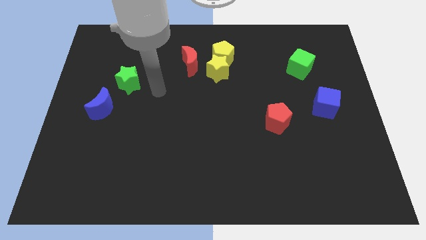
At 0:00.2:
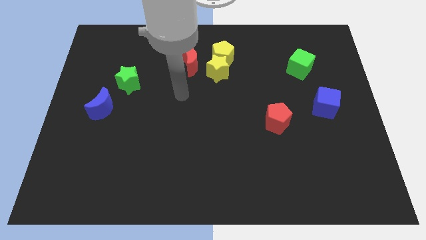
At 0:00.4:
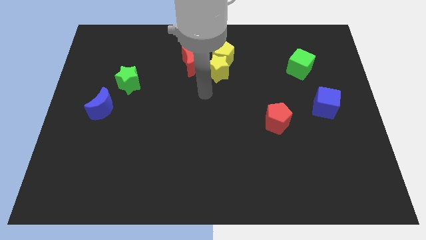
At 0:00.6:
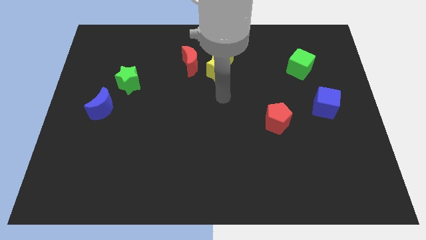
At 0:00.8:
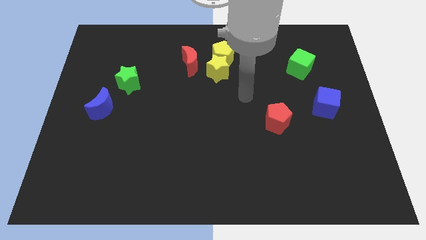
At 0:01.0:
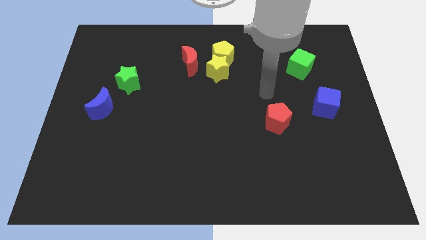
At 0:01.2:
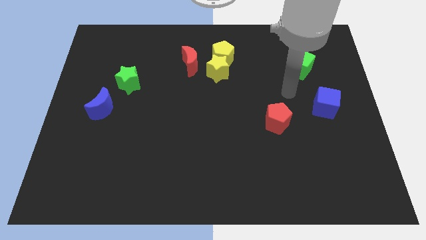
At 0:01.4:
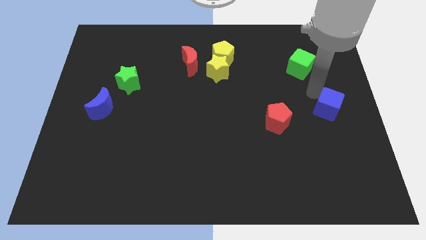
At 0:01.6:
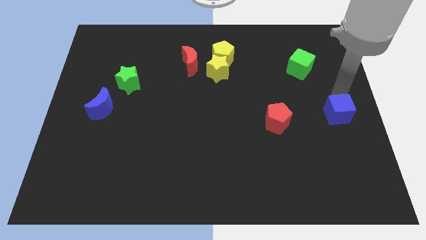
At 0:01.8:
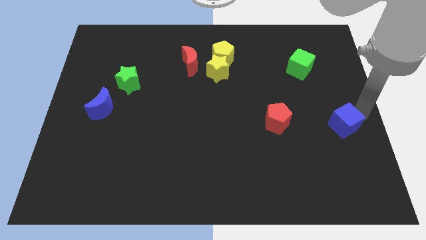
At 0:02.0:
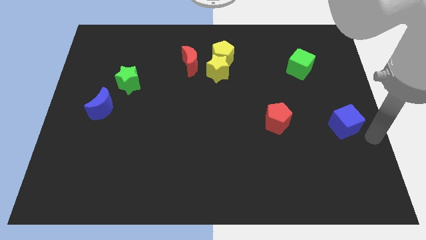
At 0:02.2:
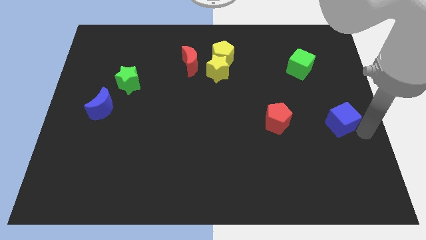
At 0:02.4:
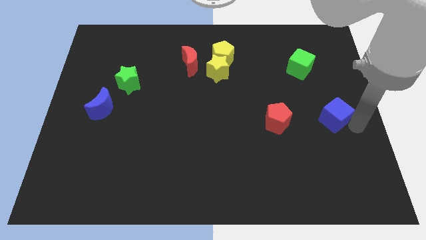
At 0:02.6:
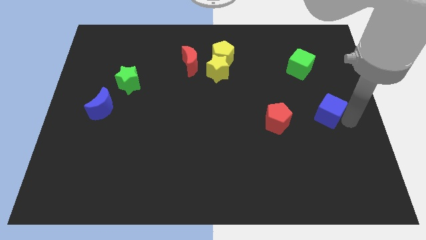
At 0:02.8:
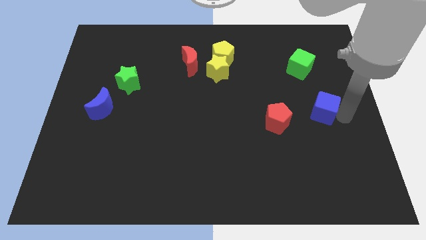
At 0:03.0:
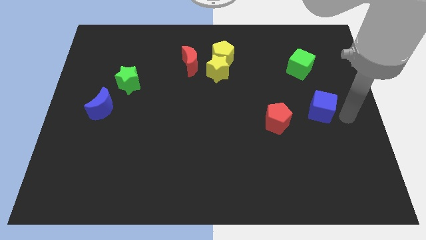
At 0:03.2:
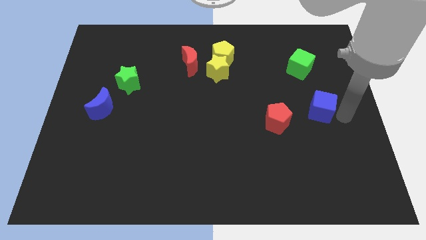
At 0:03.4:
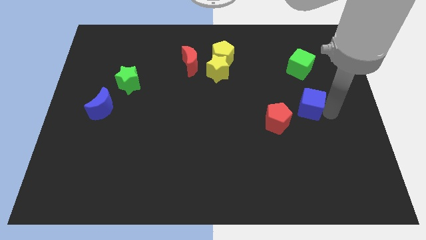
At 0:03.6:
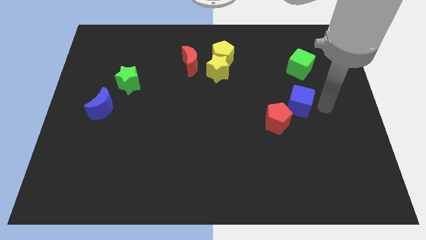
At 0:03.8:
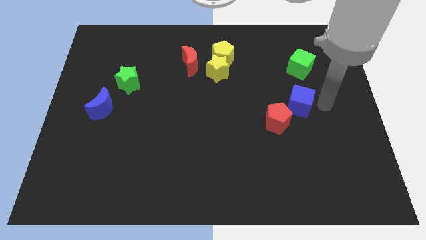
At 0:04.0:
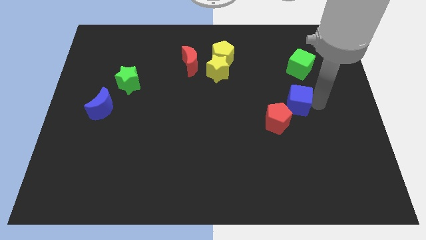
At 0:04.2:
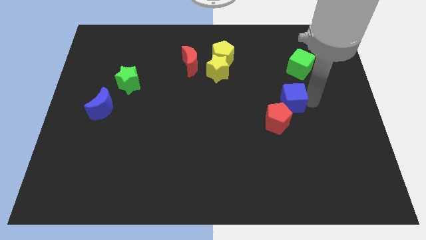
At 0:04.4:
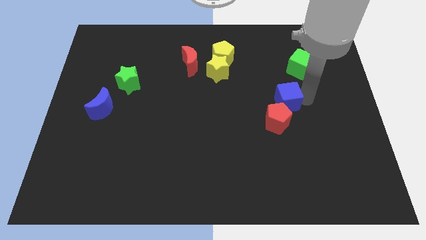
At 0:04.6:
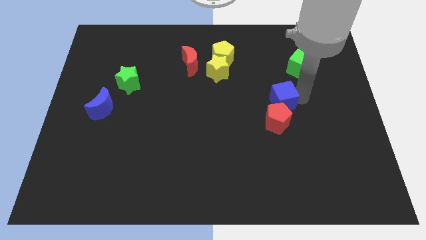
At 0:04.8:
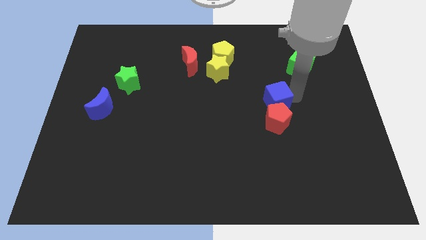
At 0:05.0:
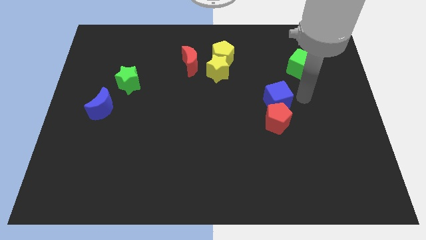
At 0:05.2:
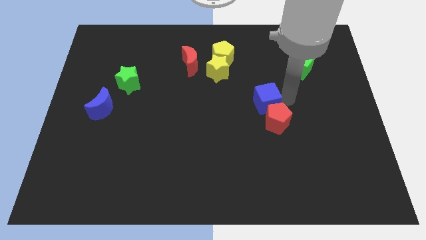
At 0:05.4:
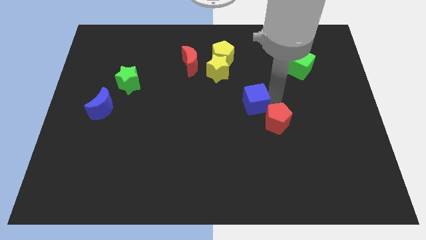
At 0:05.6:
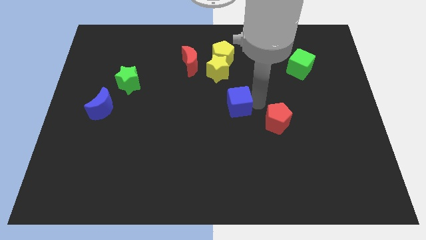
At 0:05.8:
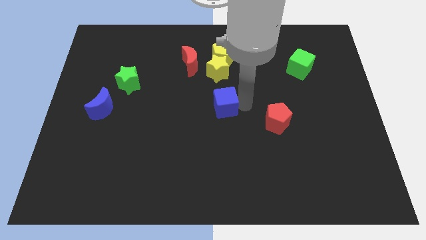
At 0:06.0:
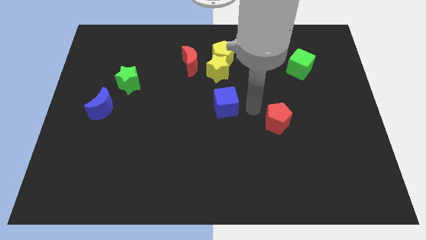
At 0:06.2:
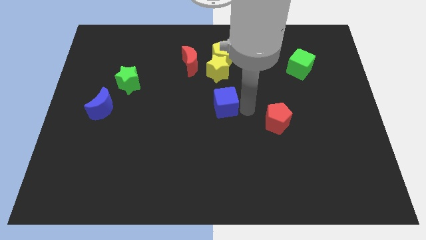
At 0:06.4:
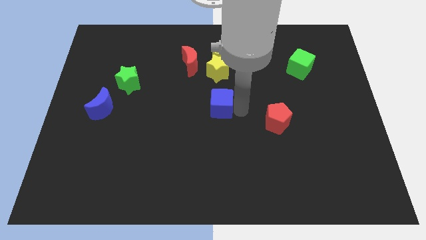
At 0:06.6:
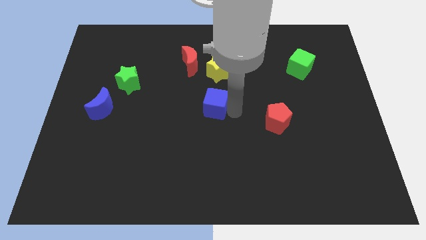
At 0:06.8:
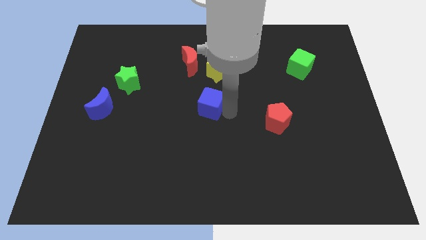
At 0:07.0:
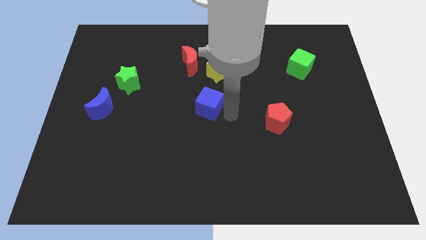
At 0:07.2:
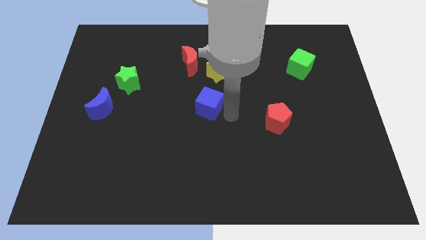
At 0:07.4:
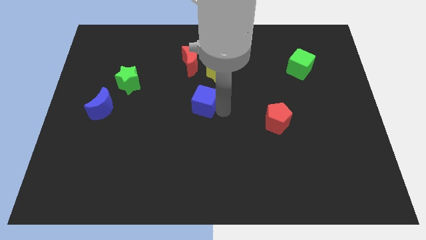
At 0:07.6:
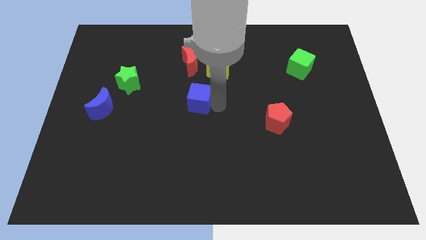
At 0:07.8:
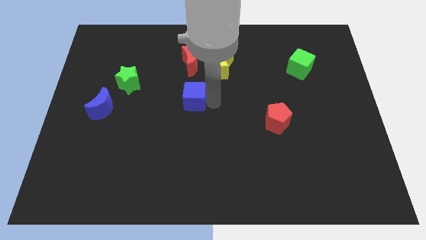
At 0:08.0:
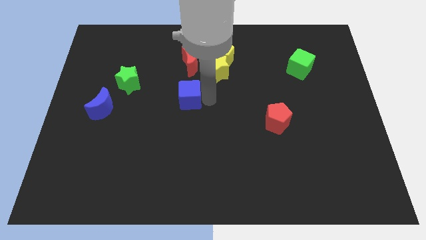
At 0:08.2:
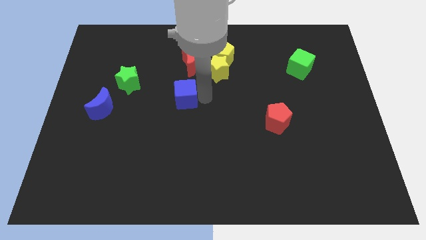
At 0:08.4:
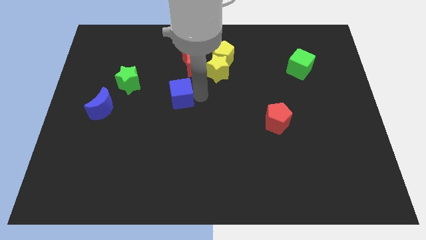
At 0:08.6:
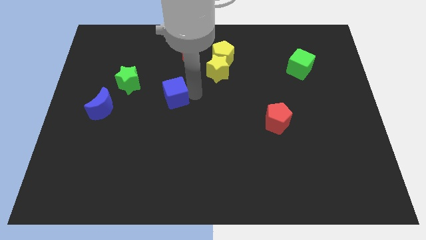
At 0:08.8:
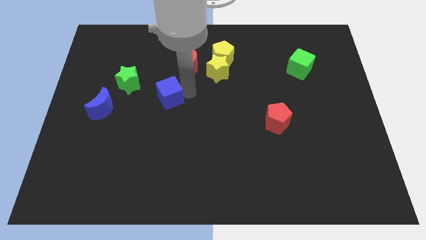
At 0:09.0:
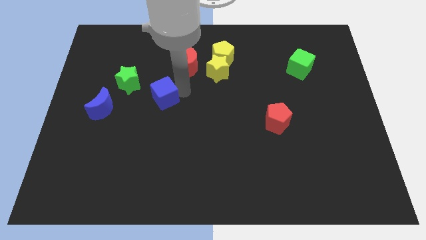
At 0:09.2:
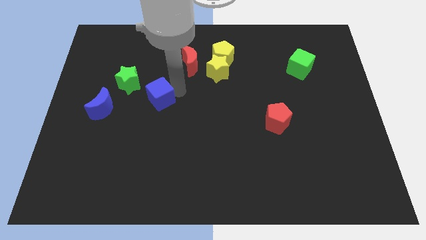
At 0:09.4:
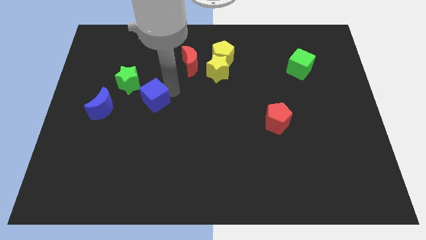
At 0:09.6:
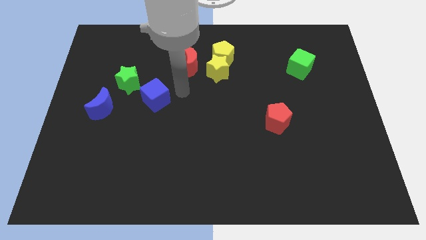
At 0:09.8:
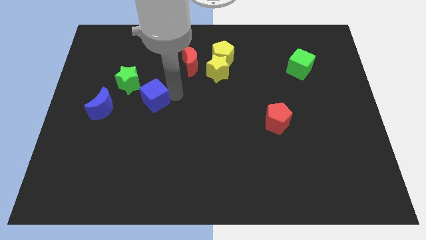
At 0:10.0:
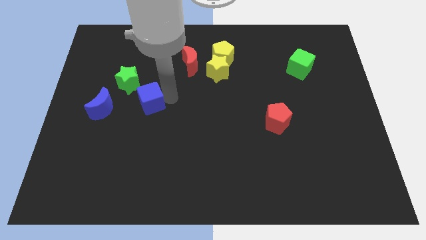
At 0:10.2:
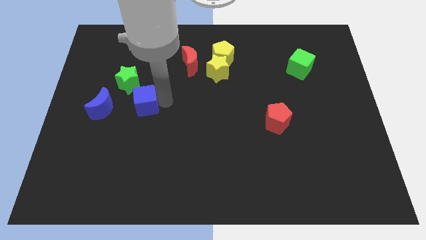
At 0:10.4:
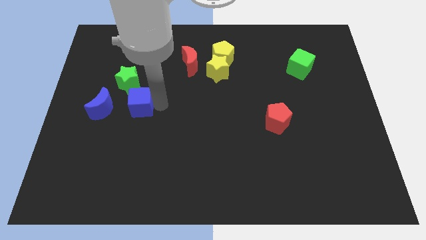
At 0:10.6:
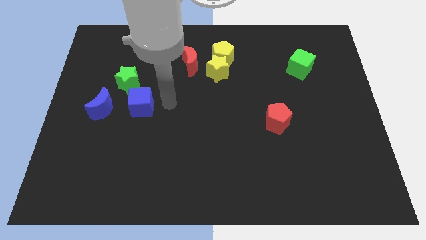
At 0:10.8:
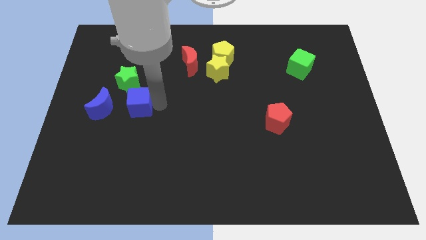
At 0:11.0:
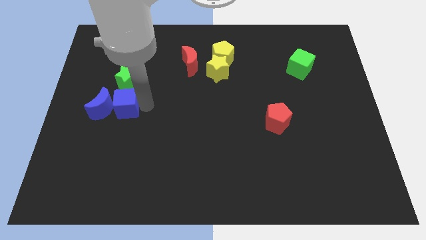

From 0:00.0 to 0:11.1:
slide the blue cube close to the blue moon

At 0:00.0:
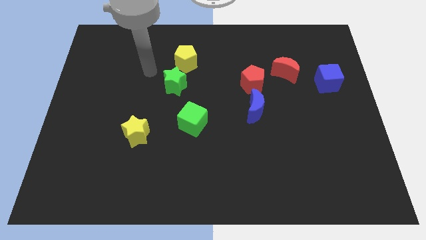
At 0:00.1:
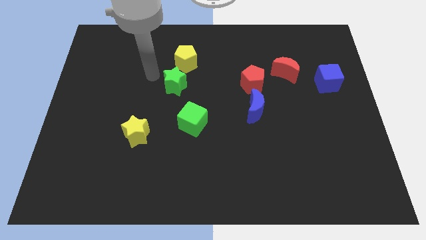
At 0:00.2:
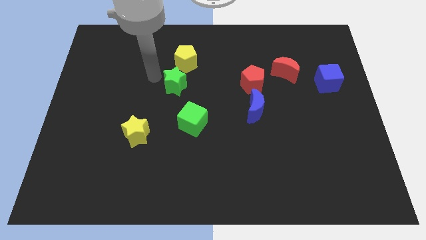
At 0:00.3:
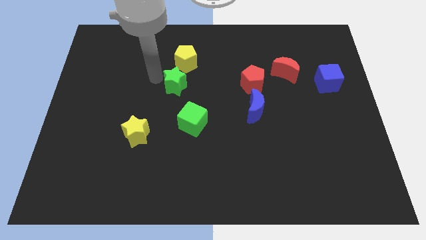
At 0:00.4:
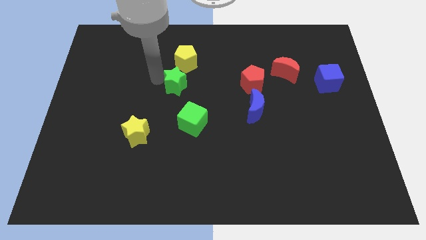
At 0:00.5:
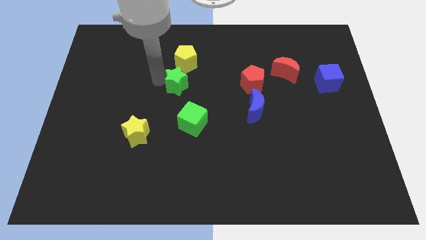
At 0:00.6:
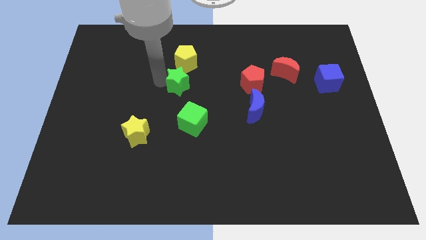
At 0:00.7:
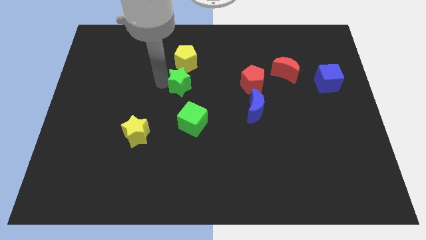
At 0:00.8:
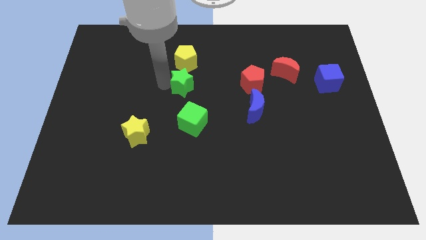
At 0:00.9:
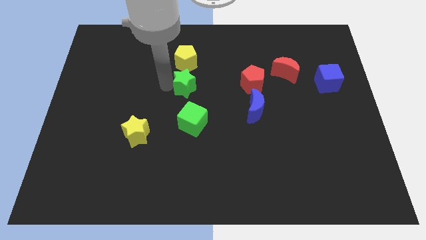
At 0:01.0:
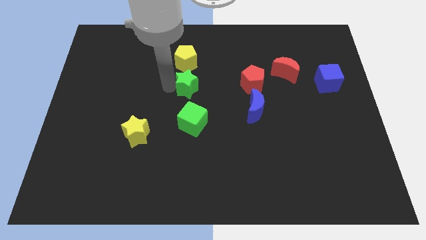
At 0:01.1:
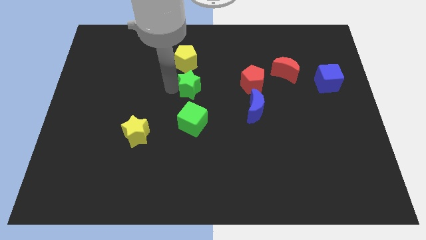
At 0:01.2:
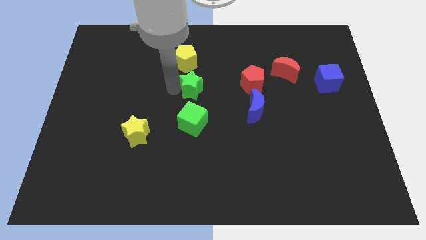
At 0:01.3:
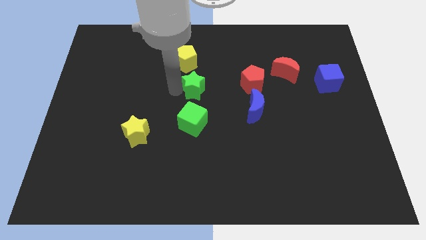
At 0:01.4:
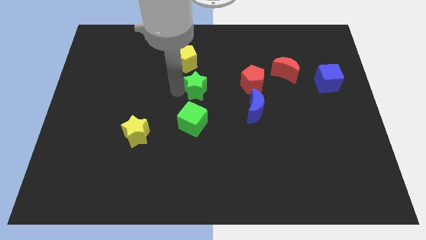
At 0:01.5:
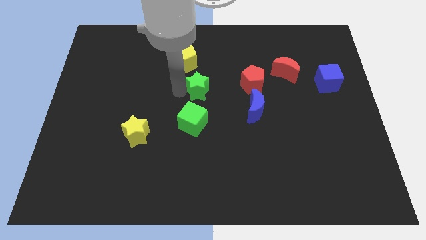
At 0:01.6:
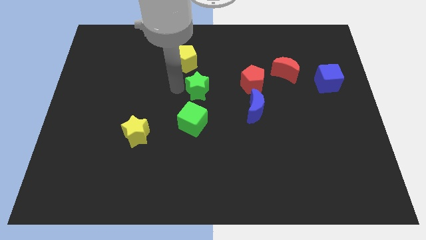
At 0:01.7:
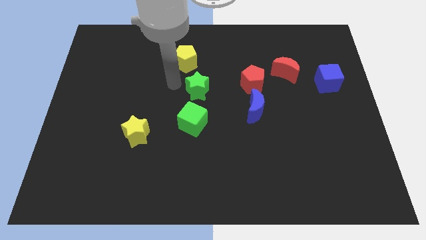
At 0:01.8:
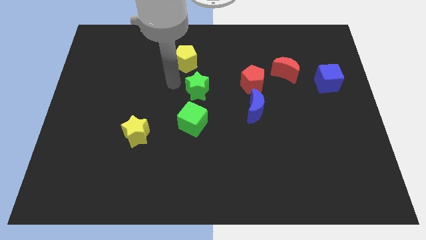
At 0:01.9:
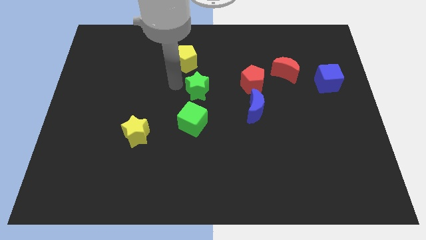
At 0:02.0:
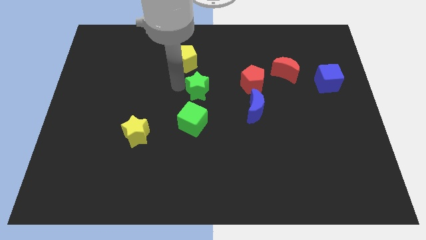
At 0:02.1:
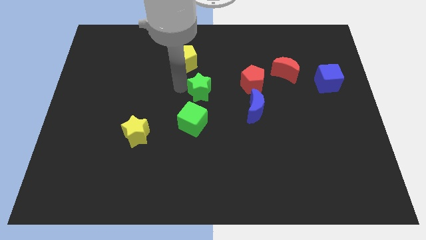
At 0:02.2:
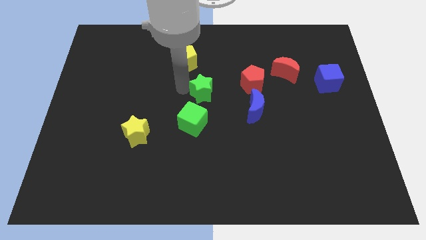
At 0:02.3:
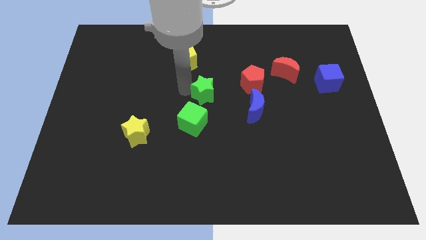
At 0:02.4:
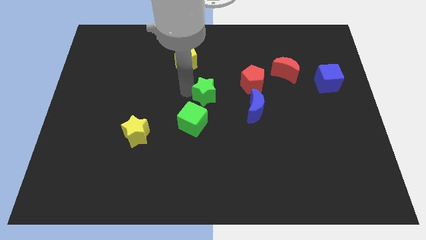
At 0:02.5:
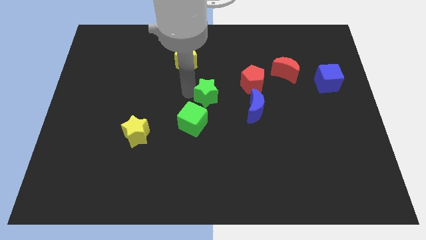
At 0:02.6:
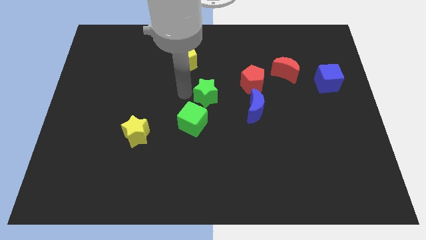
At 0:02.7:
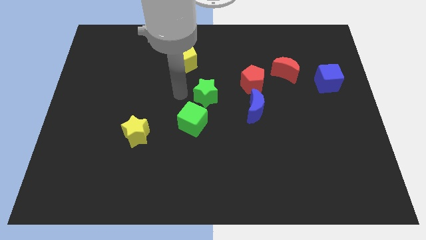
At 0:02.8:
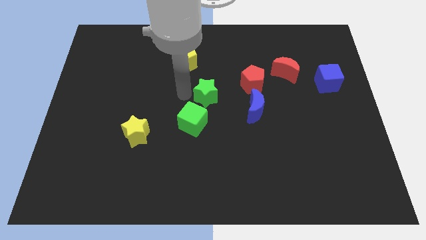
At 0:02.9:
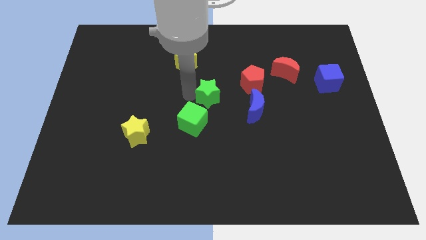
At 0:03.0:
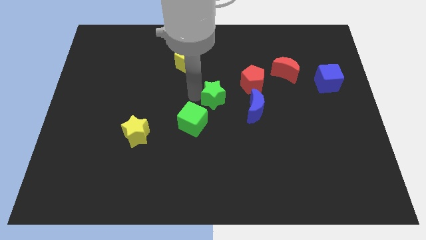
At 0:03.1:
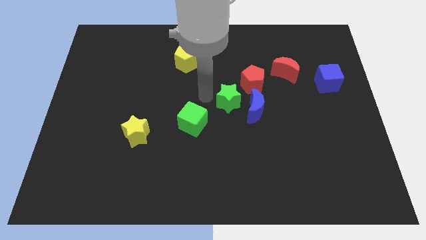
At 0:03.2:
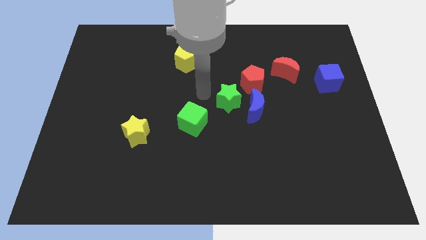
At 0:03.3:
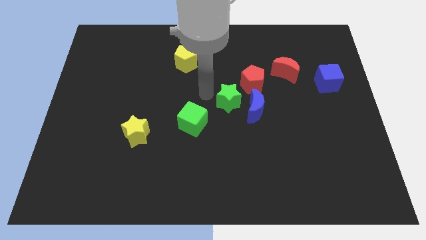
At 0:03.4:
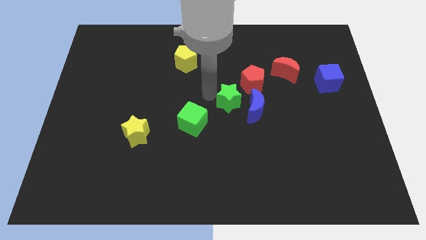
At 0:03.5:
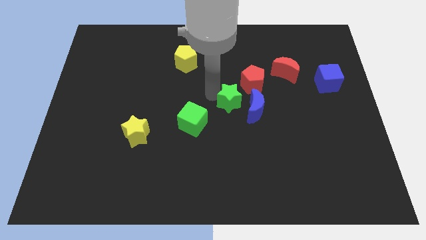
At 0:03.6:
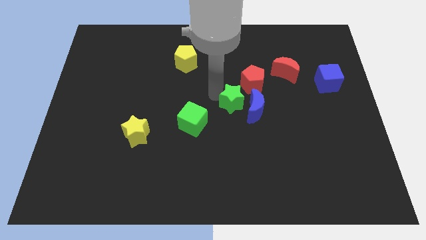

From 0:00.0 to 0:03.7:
put the green star next to the blue moon
